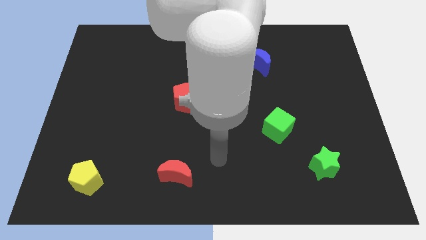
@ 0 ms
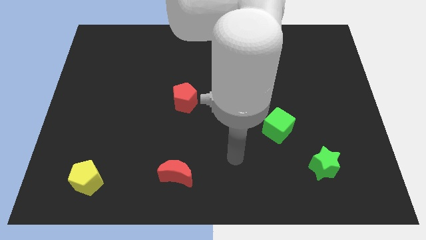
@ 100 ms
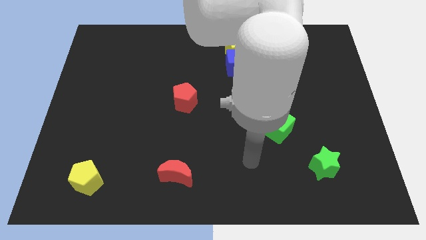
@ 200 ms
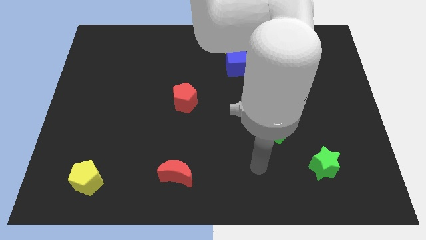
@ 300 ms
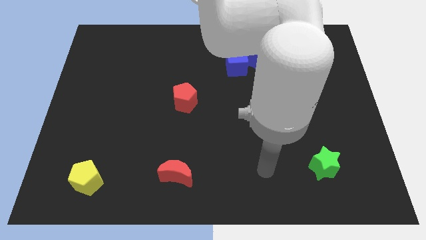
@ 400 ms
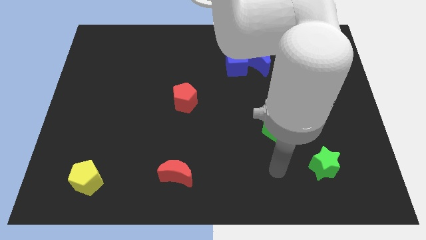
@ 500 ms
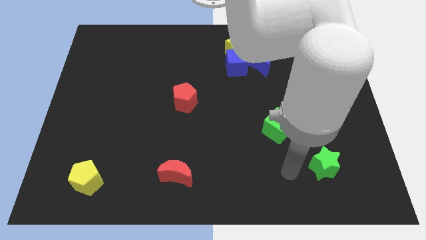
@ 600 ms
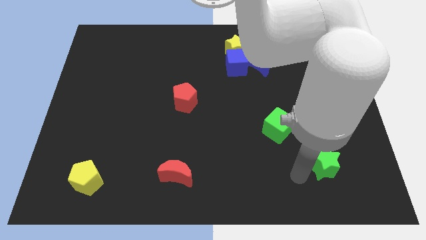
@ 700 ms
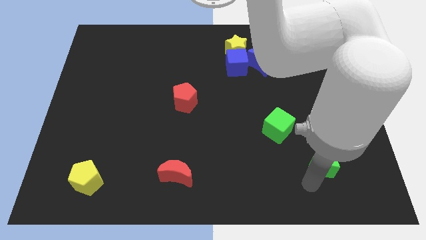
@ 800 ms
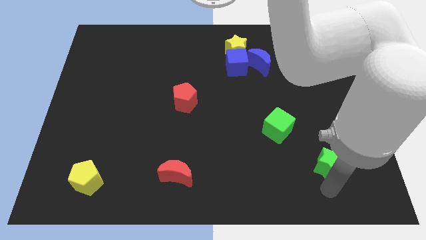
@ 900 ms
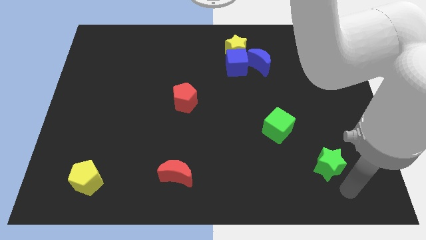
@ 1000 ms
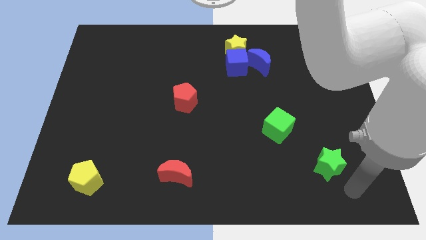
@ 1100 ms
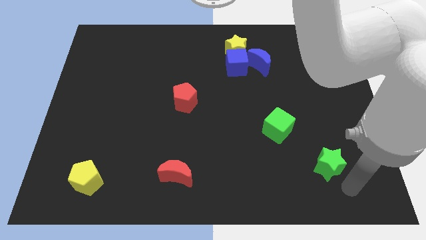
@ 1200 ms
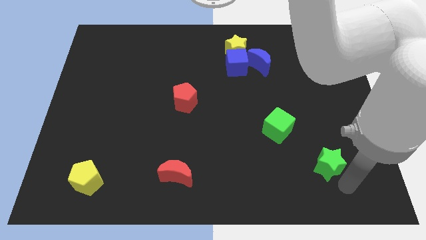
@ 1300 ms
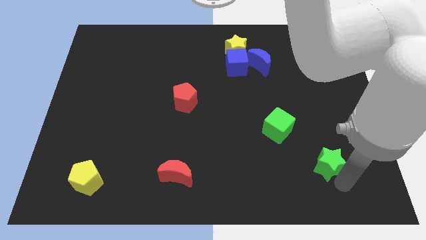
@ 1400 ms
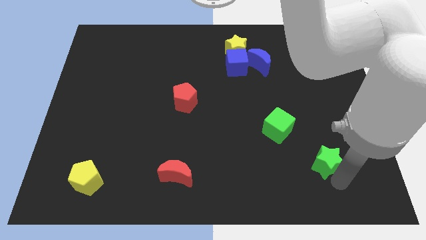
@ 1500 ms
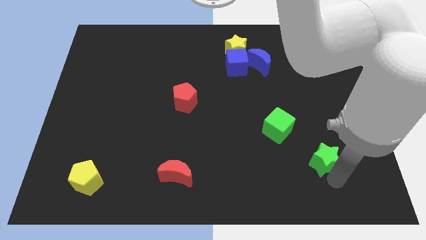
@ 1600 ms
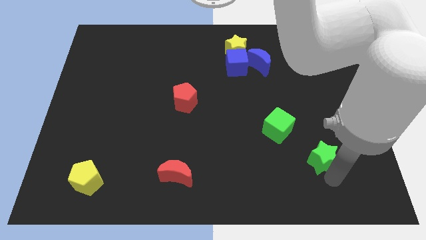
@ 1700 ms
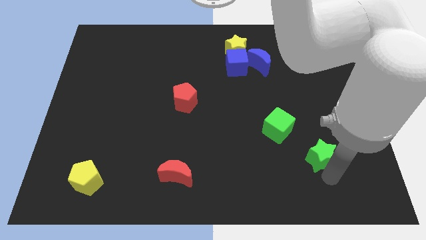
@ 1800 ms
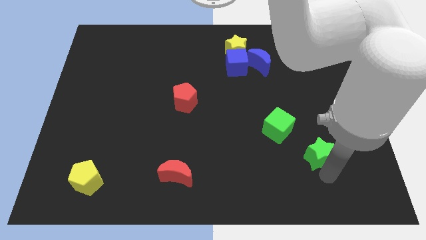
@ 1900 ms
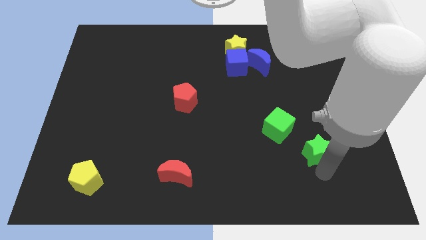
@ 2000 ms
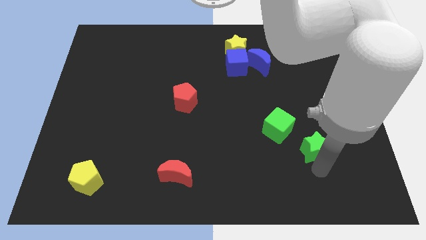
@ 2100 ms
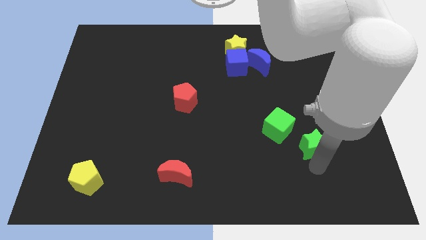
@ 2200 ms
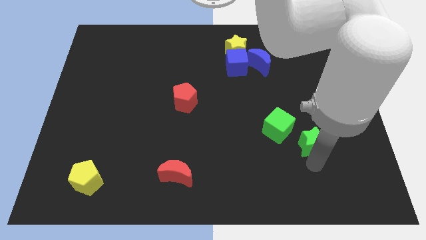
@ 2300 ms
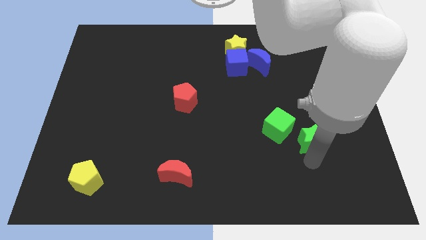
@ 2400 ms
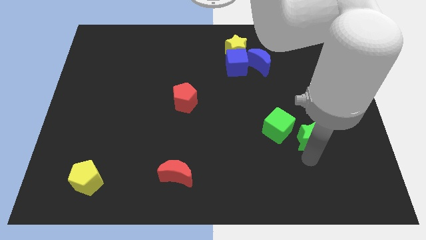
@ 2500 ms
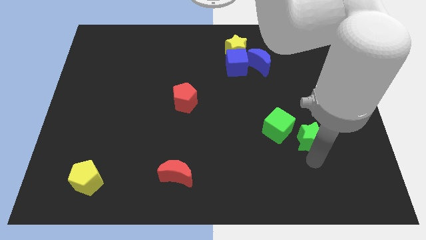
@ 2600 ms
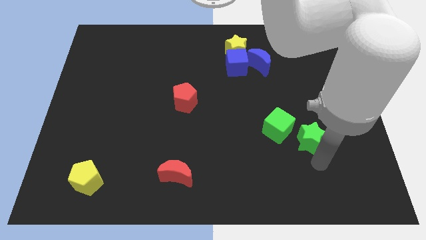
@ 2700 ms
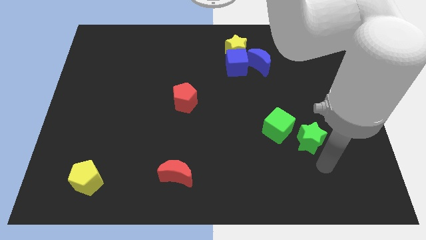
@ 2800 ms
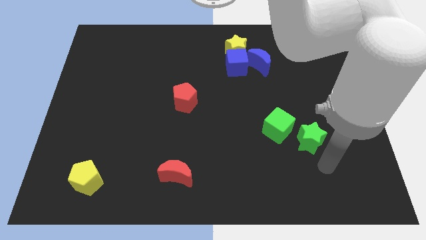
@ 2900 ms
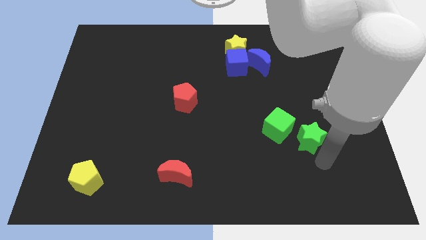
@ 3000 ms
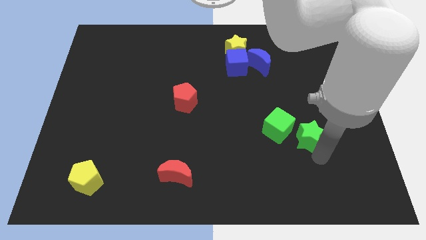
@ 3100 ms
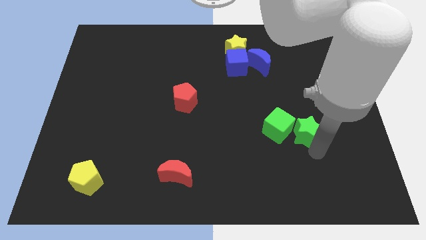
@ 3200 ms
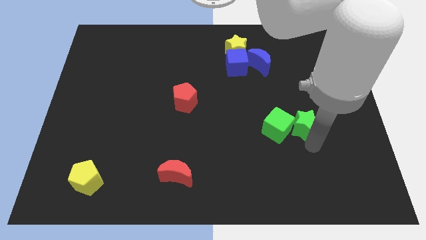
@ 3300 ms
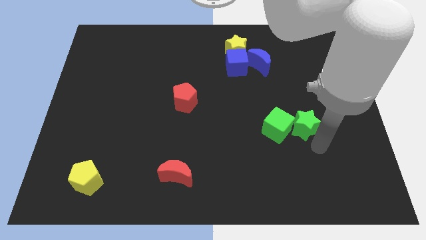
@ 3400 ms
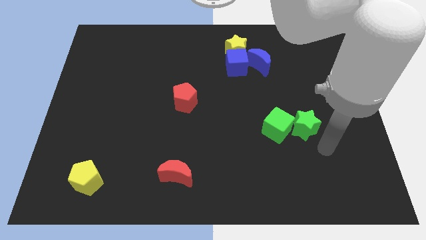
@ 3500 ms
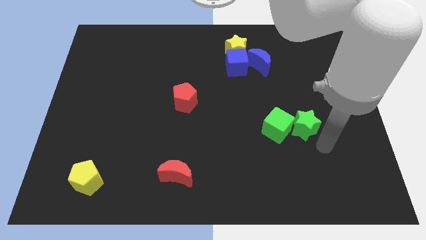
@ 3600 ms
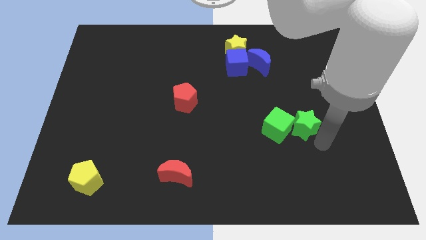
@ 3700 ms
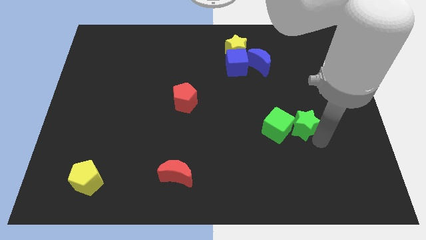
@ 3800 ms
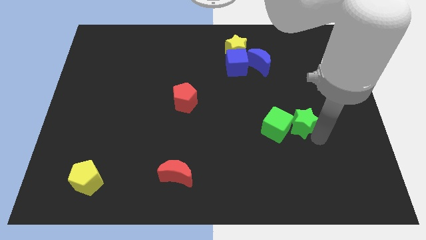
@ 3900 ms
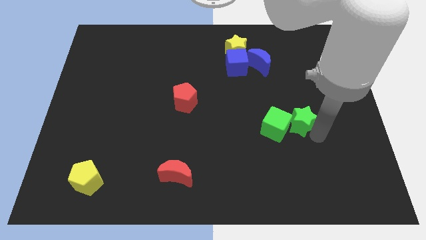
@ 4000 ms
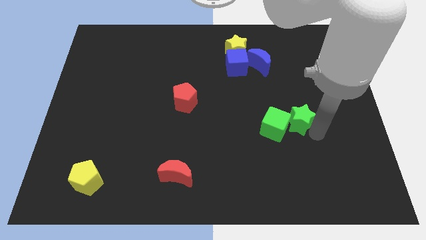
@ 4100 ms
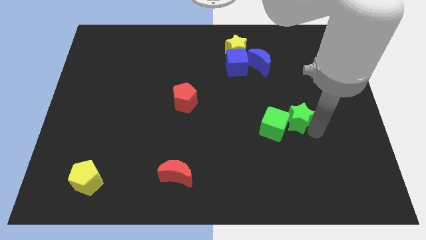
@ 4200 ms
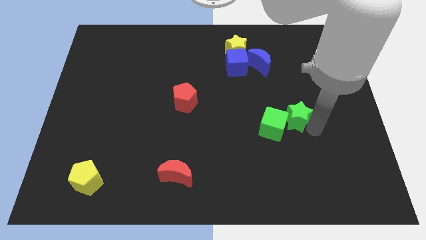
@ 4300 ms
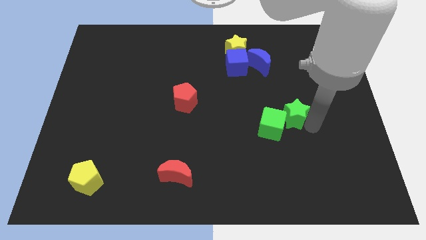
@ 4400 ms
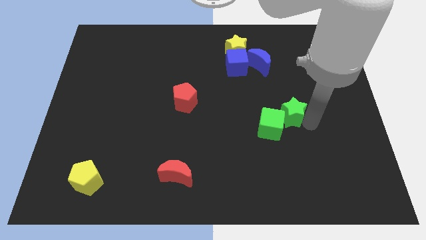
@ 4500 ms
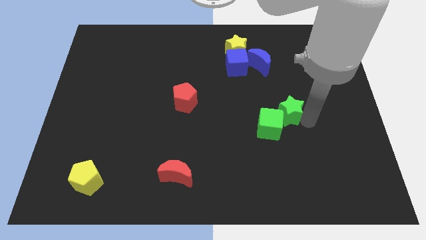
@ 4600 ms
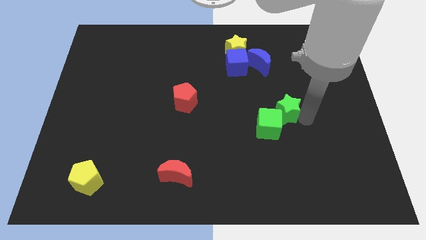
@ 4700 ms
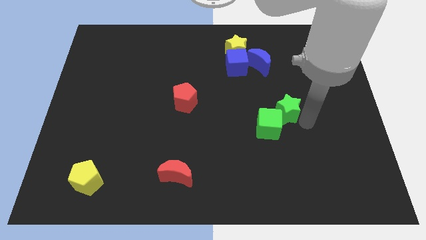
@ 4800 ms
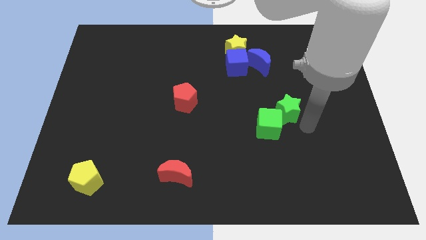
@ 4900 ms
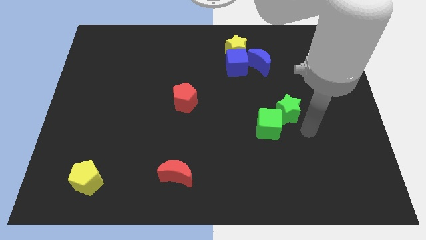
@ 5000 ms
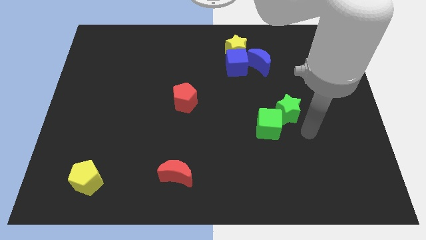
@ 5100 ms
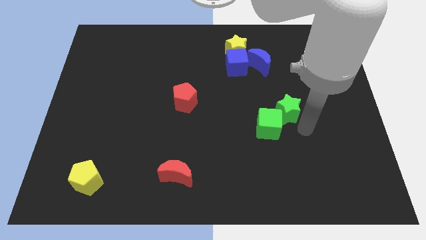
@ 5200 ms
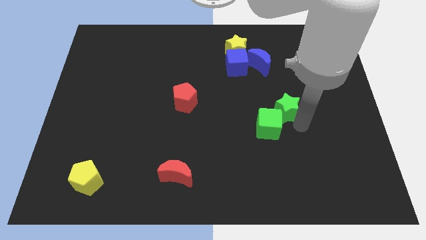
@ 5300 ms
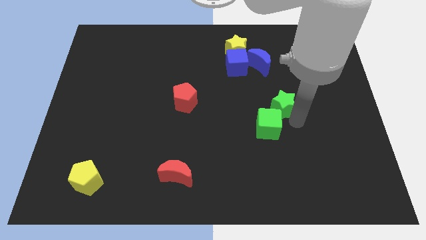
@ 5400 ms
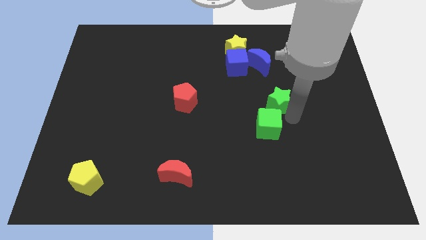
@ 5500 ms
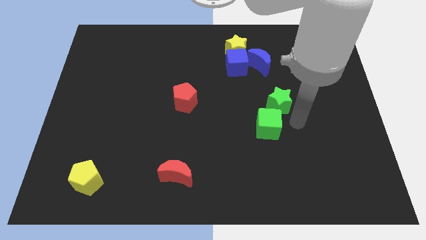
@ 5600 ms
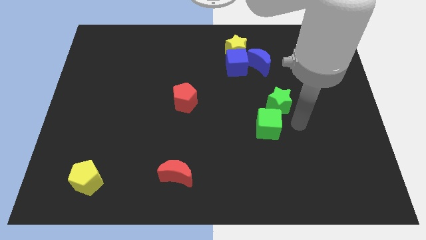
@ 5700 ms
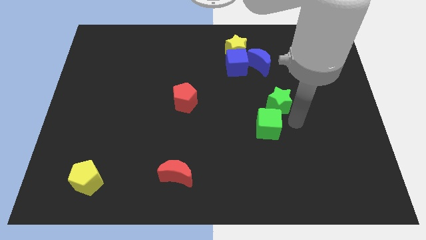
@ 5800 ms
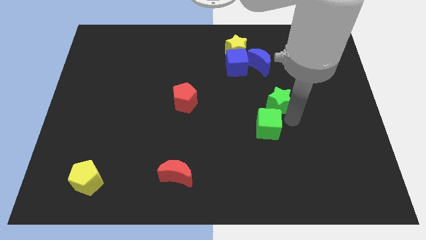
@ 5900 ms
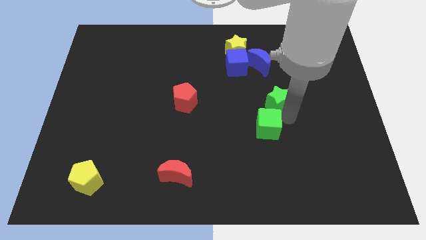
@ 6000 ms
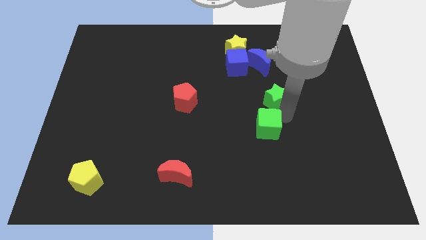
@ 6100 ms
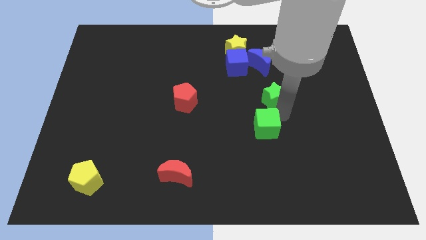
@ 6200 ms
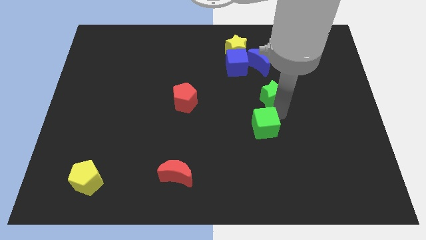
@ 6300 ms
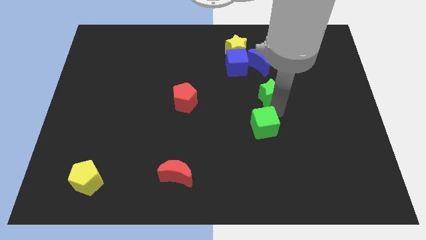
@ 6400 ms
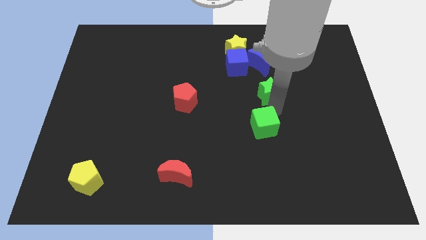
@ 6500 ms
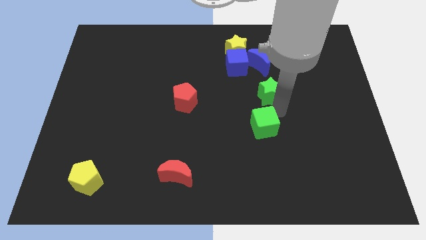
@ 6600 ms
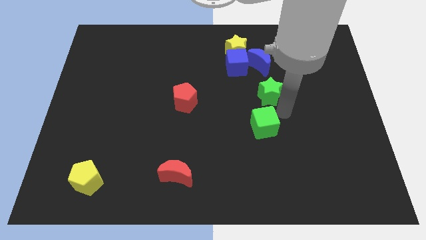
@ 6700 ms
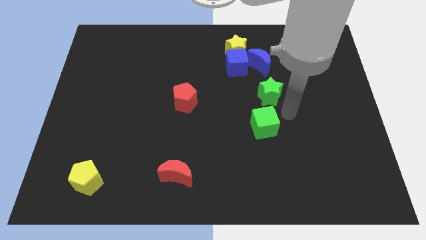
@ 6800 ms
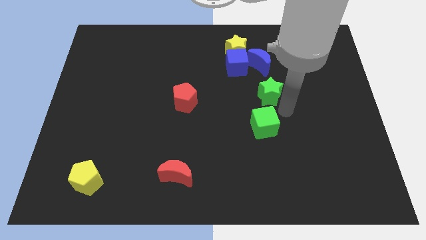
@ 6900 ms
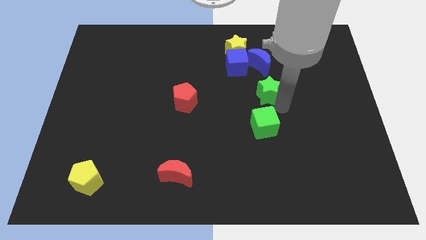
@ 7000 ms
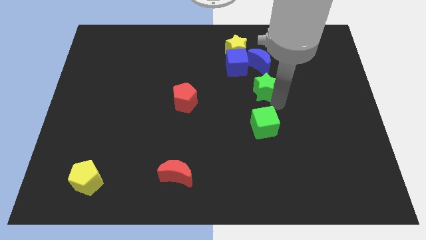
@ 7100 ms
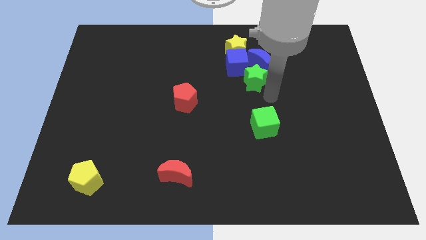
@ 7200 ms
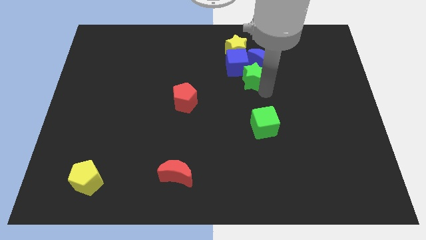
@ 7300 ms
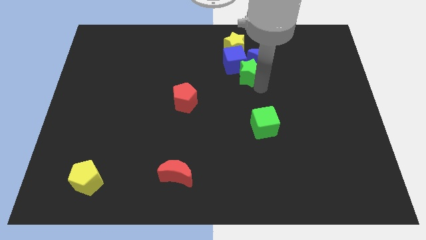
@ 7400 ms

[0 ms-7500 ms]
push the green star next to the blue cube
